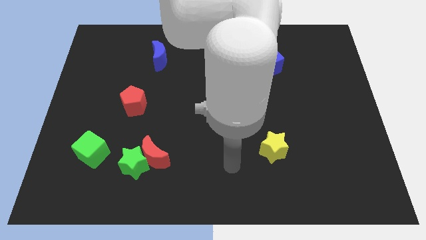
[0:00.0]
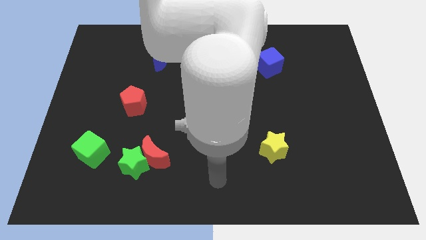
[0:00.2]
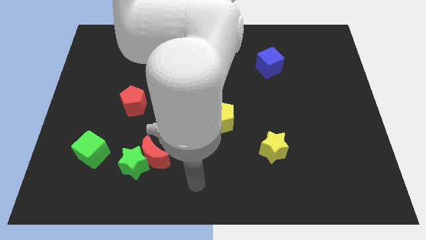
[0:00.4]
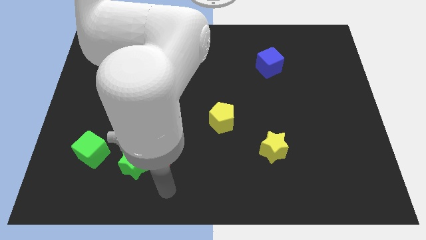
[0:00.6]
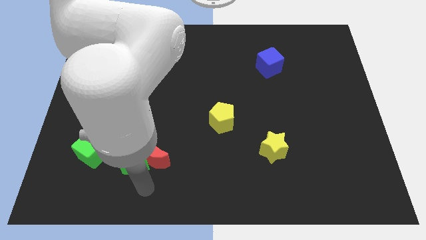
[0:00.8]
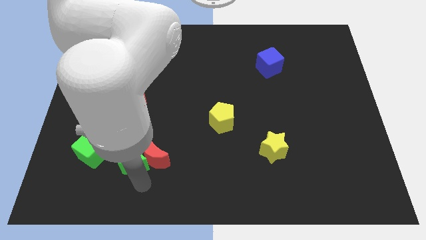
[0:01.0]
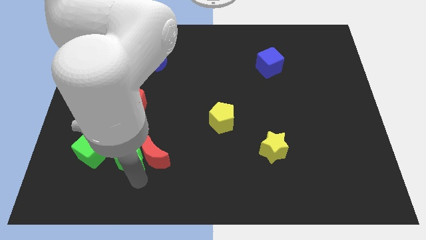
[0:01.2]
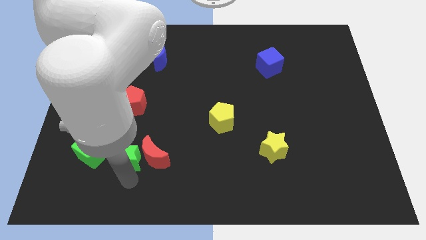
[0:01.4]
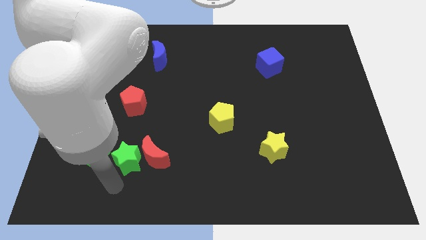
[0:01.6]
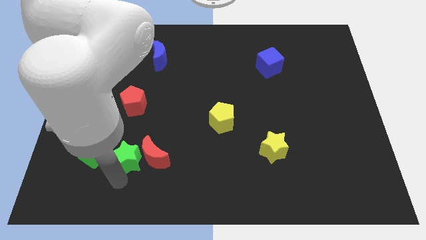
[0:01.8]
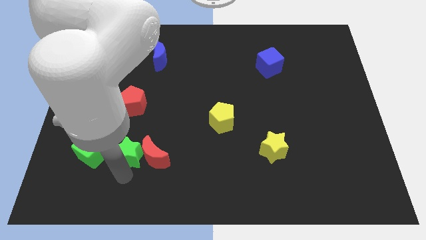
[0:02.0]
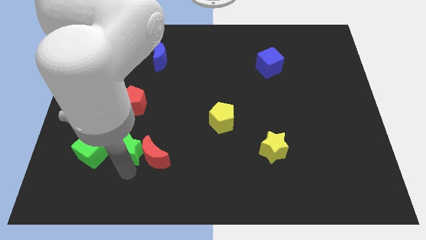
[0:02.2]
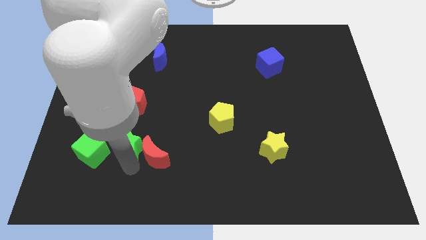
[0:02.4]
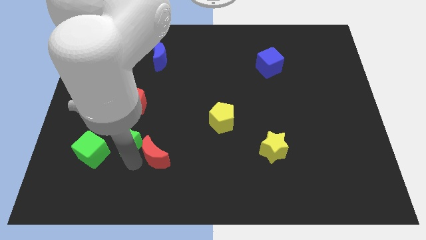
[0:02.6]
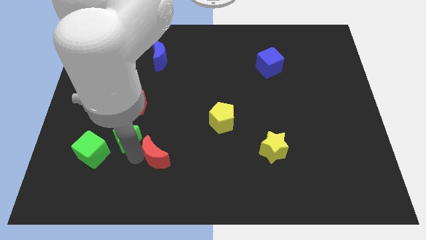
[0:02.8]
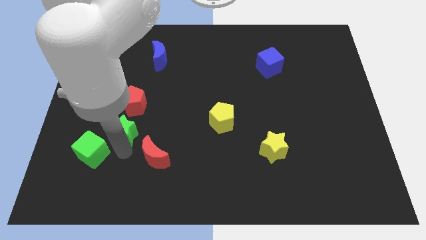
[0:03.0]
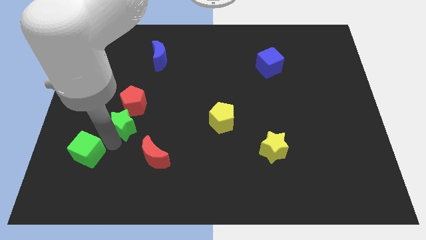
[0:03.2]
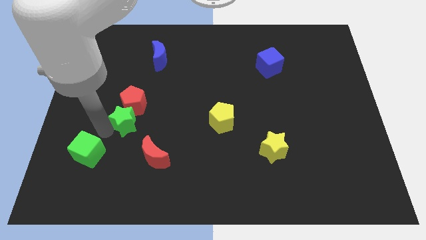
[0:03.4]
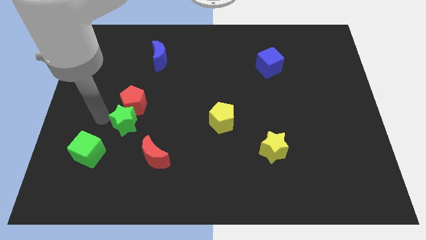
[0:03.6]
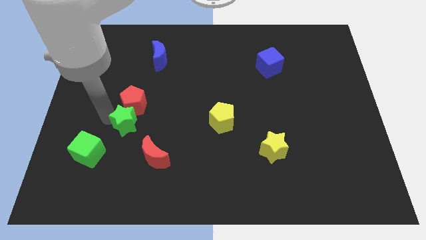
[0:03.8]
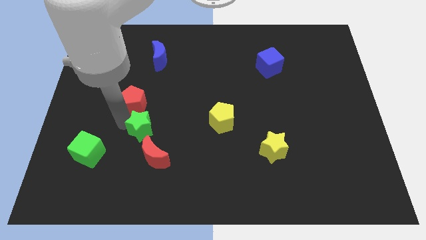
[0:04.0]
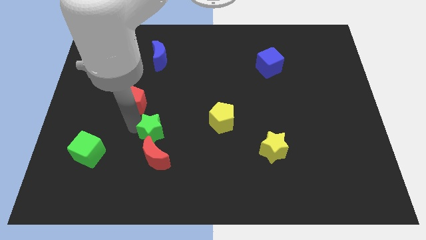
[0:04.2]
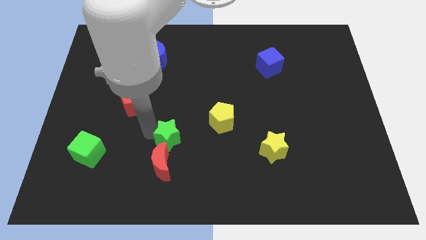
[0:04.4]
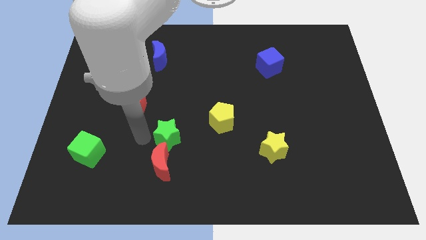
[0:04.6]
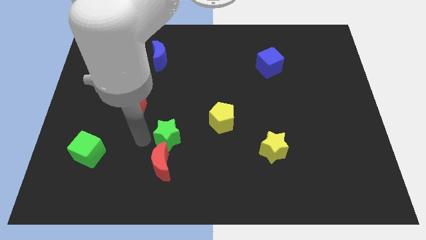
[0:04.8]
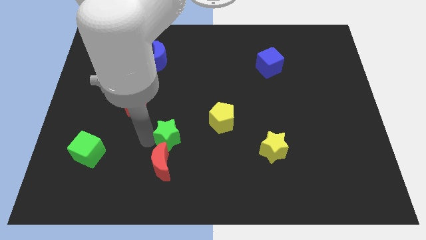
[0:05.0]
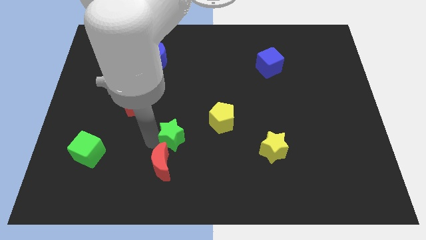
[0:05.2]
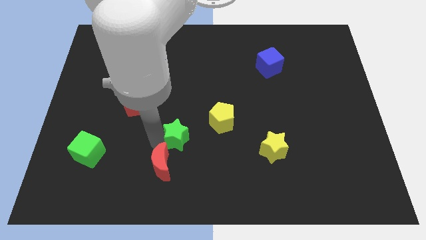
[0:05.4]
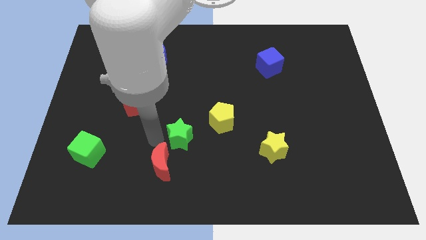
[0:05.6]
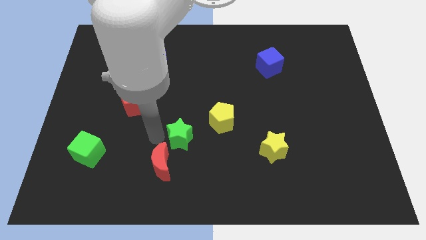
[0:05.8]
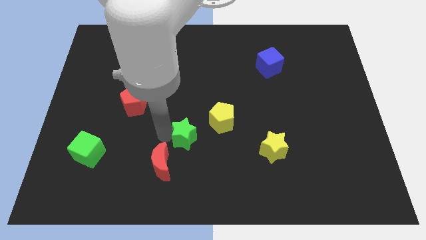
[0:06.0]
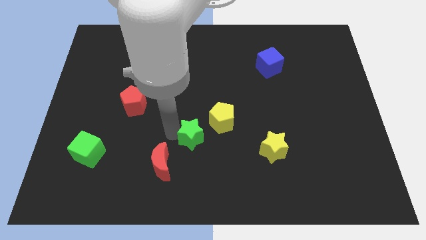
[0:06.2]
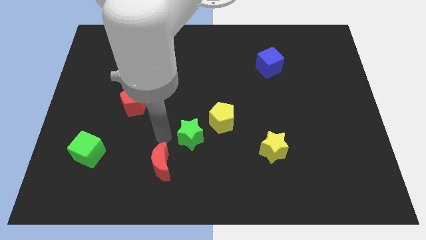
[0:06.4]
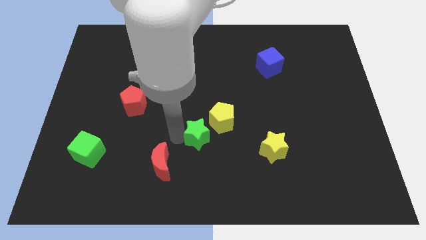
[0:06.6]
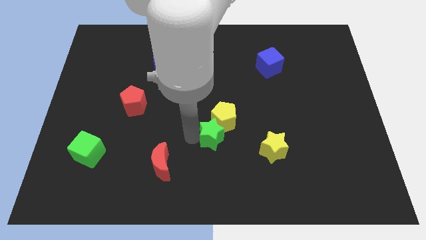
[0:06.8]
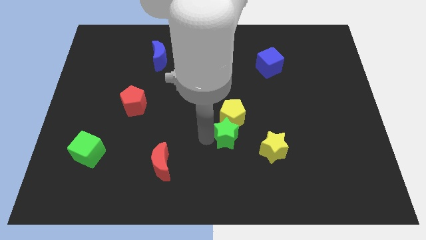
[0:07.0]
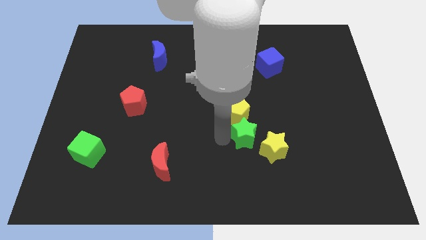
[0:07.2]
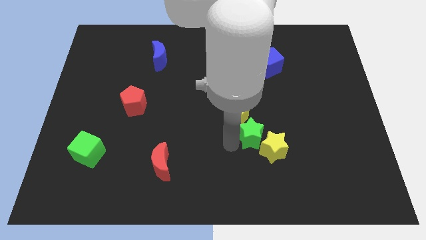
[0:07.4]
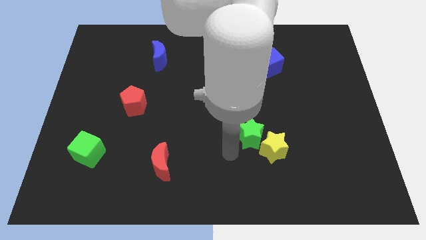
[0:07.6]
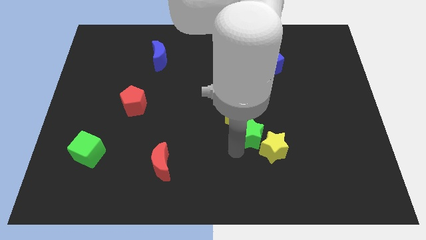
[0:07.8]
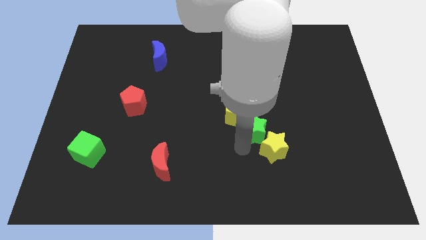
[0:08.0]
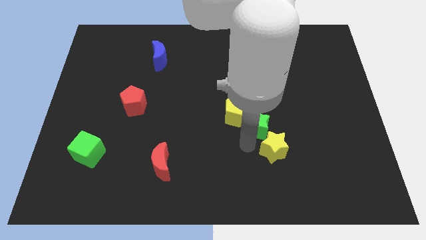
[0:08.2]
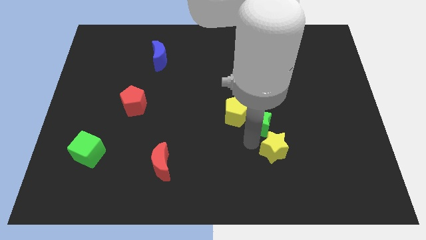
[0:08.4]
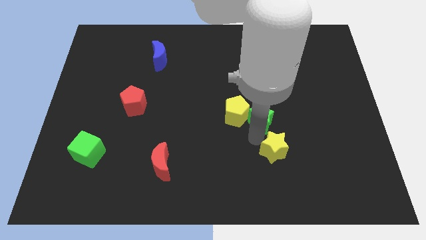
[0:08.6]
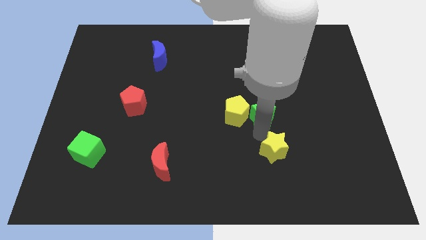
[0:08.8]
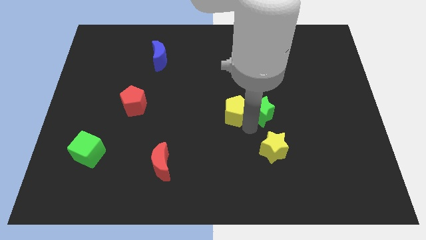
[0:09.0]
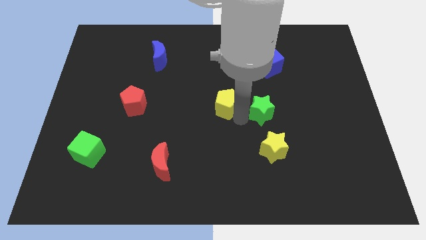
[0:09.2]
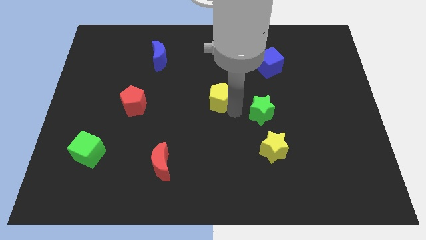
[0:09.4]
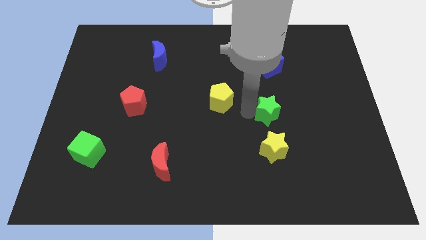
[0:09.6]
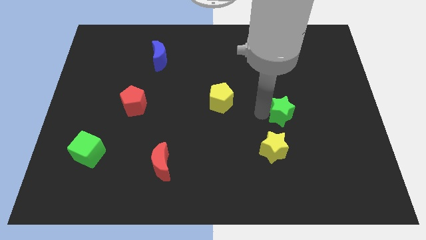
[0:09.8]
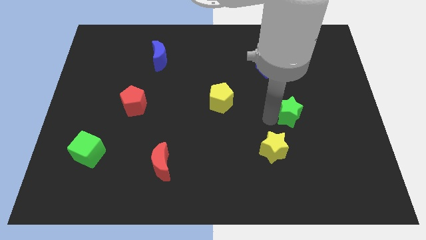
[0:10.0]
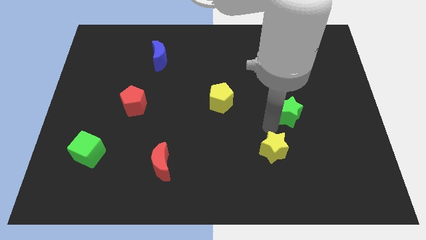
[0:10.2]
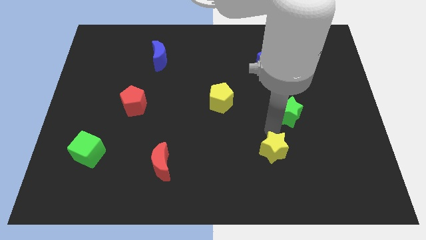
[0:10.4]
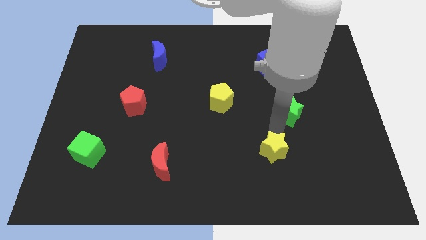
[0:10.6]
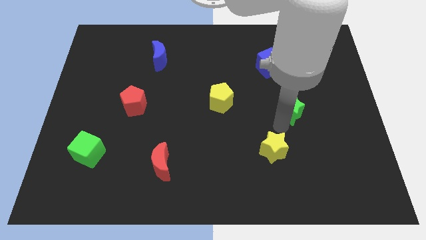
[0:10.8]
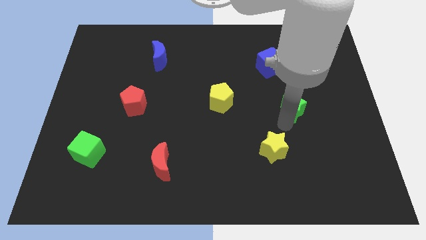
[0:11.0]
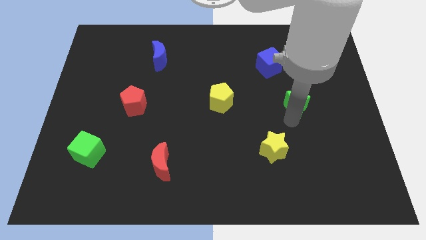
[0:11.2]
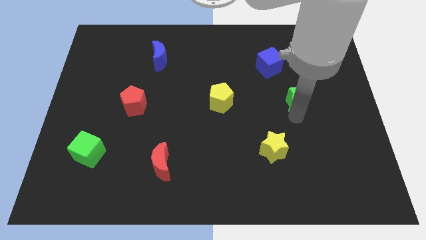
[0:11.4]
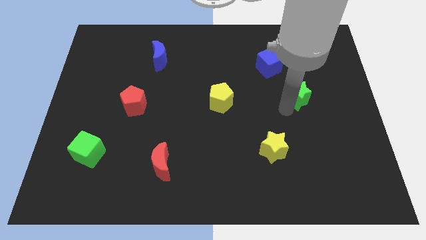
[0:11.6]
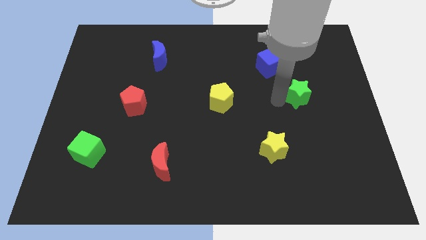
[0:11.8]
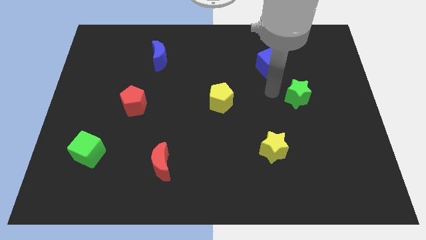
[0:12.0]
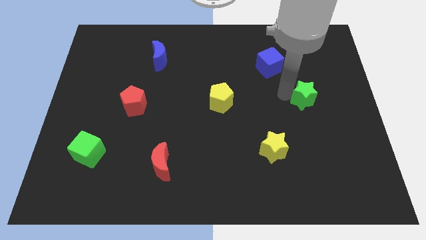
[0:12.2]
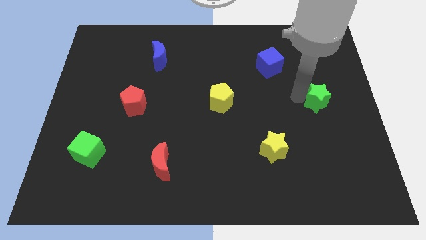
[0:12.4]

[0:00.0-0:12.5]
put the green star to the right side of the board
